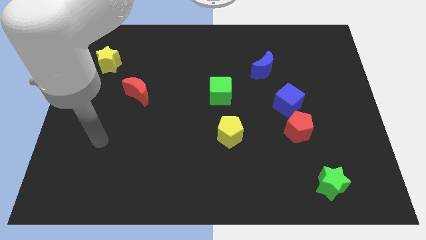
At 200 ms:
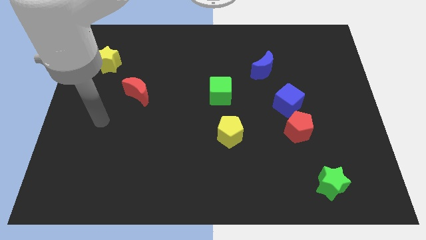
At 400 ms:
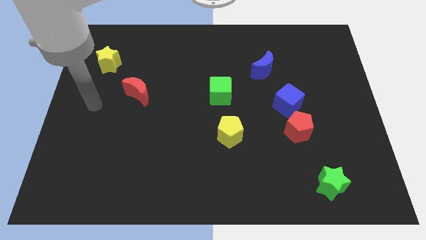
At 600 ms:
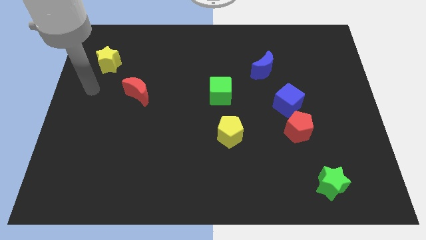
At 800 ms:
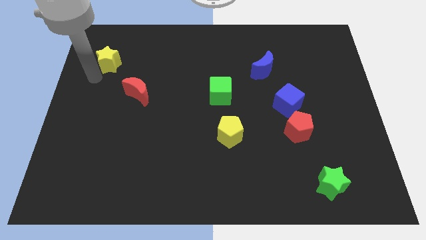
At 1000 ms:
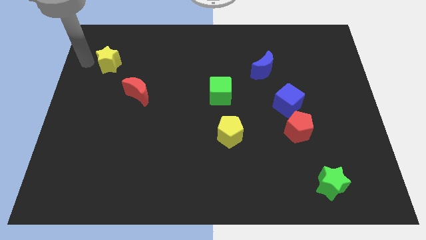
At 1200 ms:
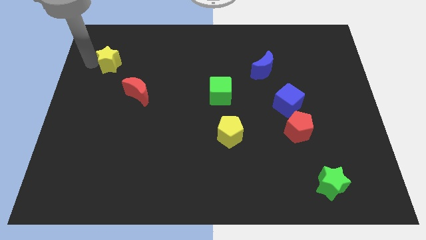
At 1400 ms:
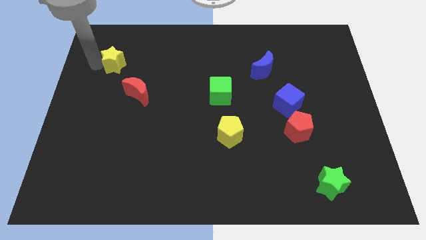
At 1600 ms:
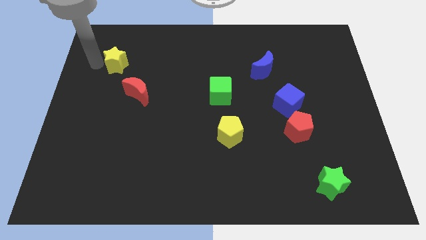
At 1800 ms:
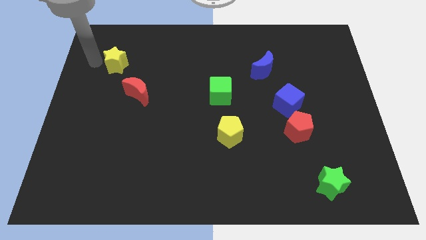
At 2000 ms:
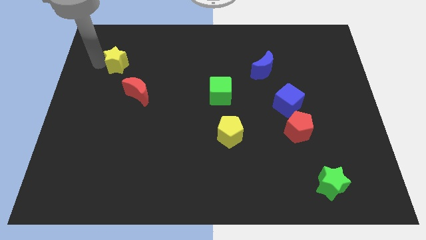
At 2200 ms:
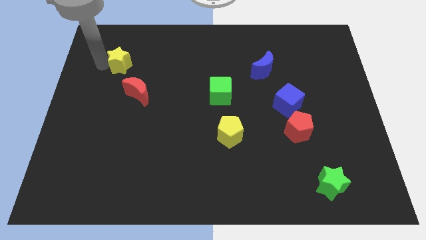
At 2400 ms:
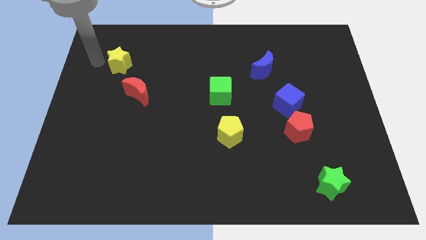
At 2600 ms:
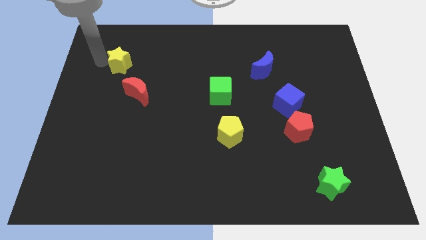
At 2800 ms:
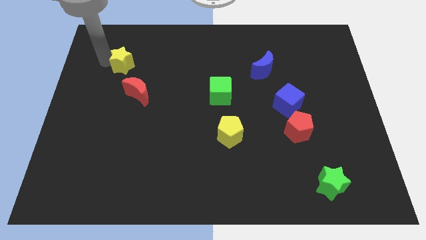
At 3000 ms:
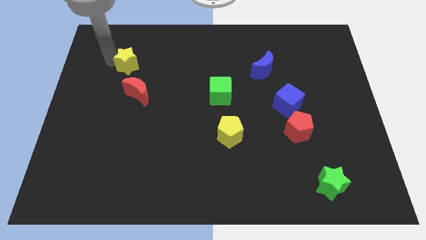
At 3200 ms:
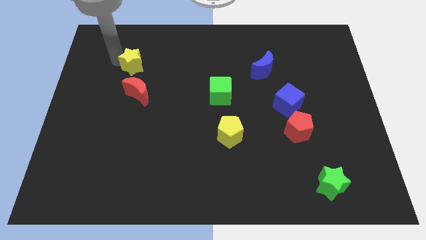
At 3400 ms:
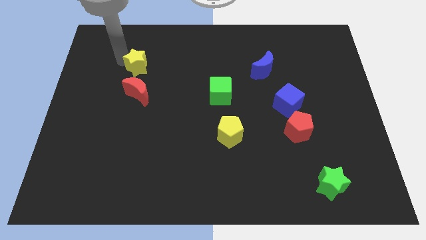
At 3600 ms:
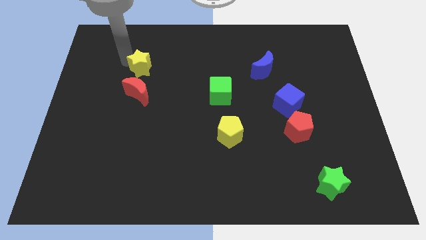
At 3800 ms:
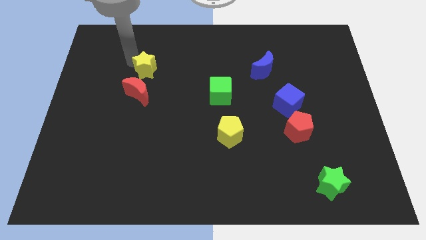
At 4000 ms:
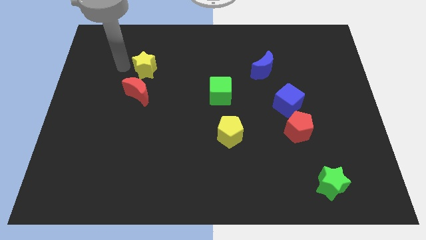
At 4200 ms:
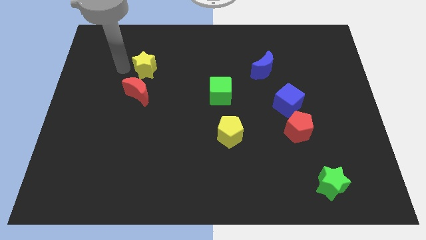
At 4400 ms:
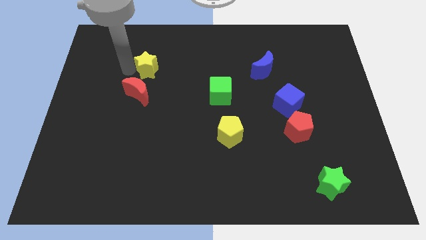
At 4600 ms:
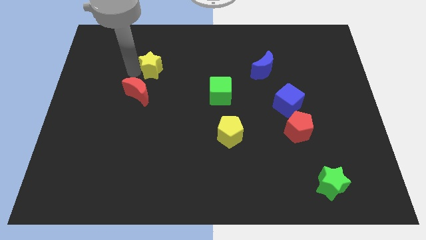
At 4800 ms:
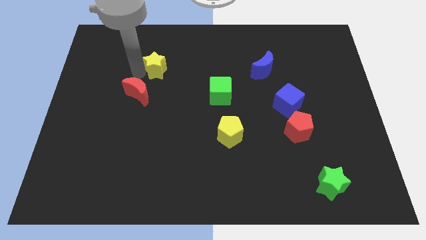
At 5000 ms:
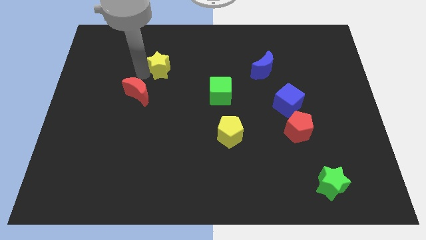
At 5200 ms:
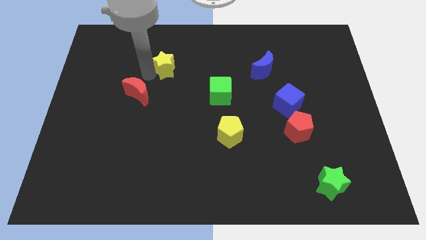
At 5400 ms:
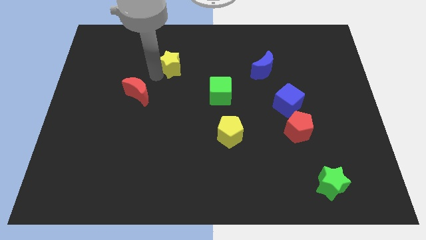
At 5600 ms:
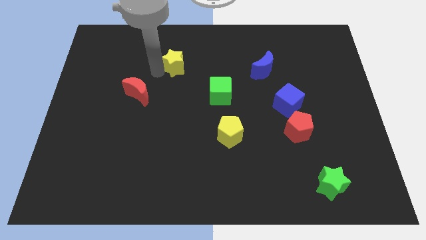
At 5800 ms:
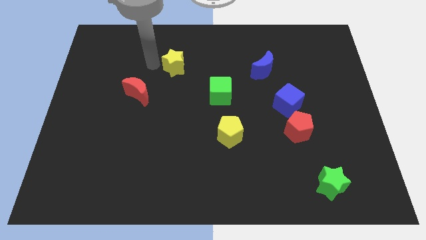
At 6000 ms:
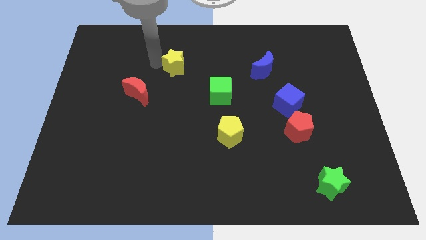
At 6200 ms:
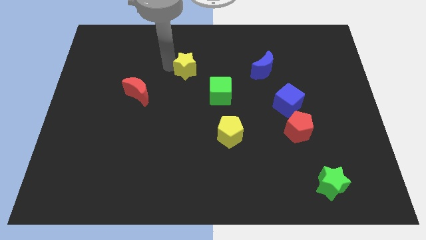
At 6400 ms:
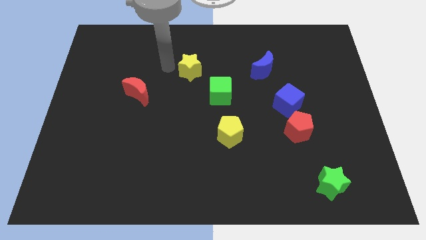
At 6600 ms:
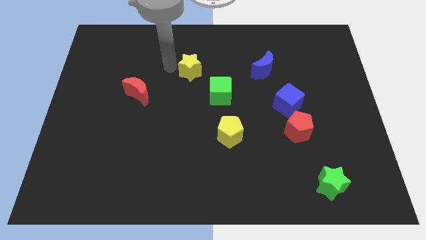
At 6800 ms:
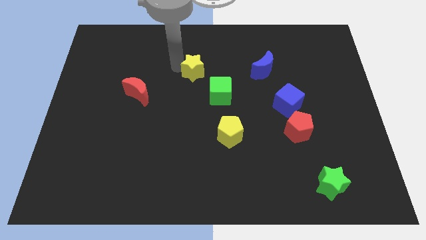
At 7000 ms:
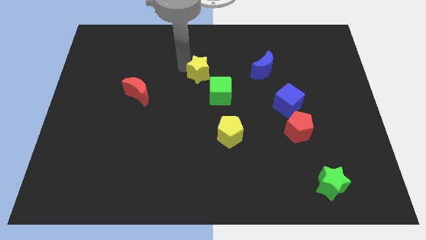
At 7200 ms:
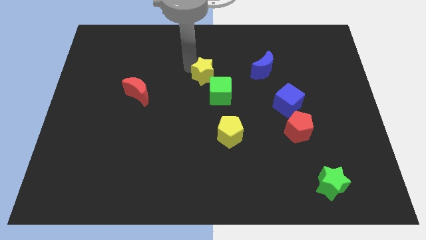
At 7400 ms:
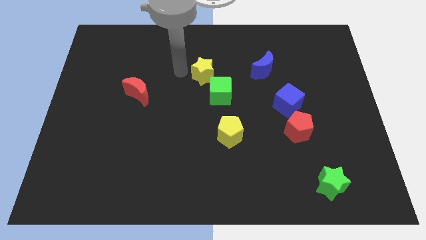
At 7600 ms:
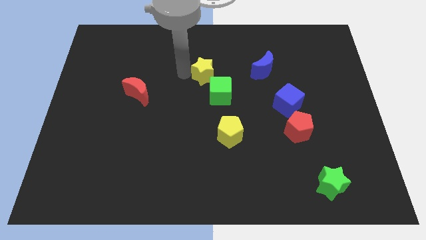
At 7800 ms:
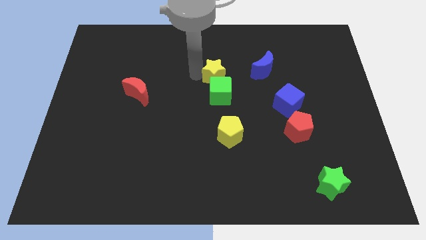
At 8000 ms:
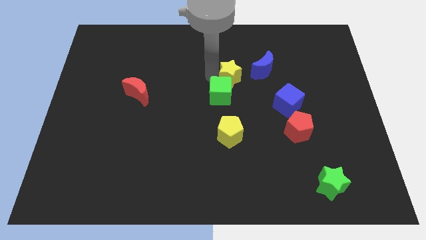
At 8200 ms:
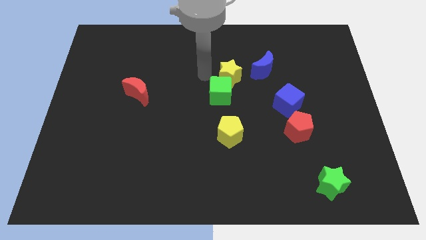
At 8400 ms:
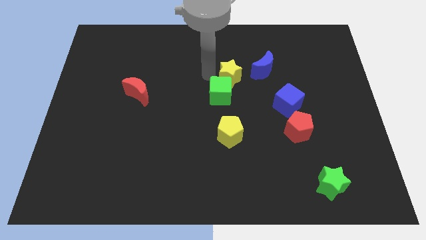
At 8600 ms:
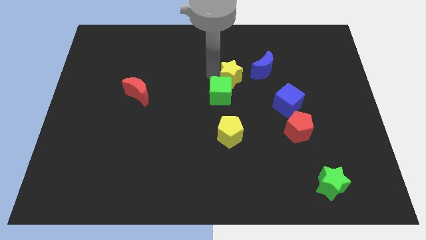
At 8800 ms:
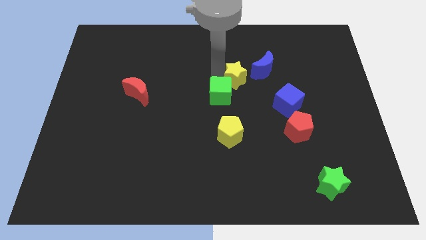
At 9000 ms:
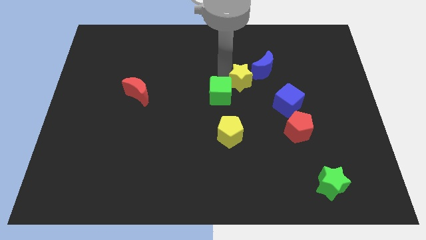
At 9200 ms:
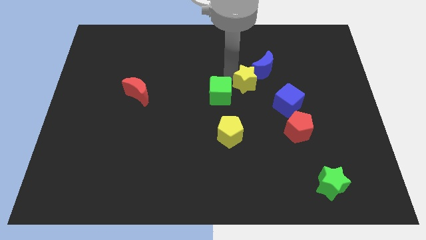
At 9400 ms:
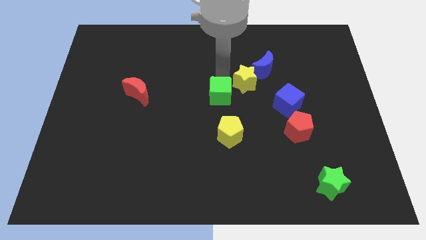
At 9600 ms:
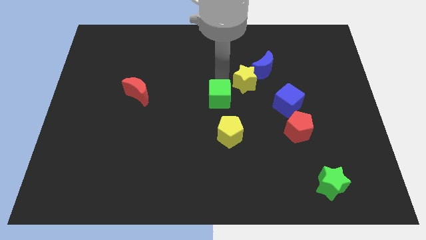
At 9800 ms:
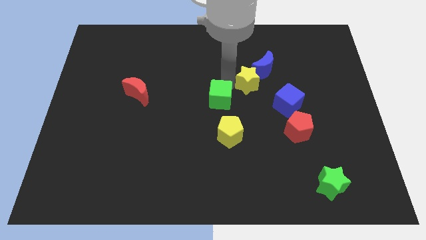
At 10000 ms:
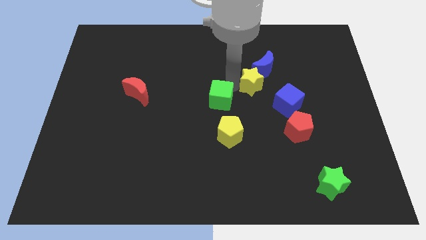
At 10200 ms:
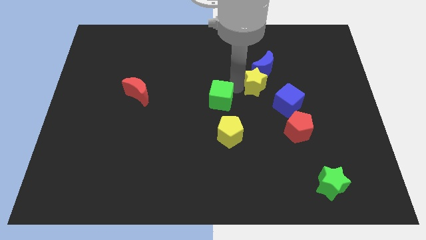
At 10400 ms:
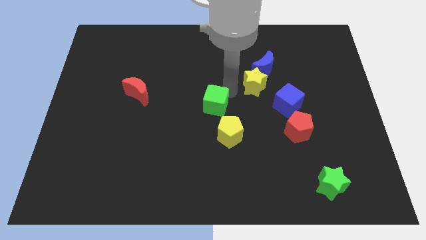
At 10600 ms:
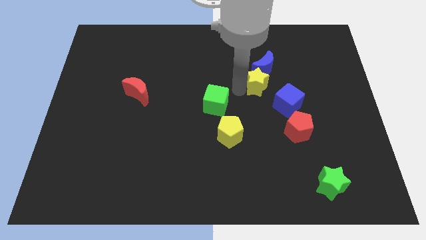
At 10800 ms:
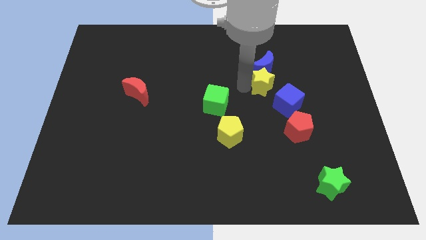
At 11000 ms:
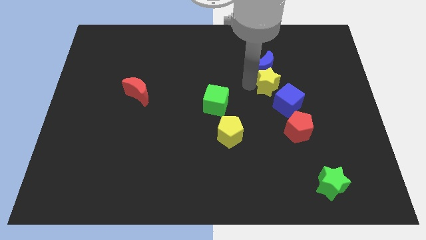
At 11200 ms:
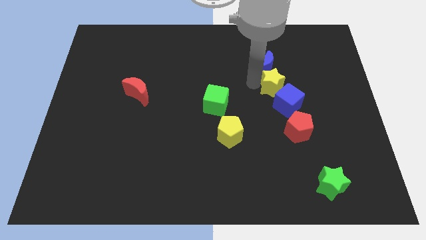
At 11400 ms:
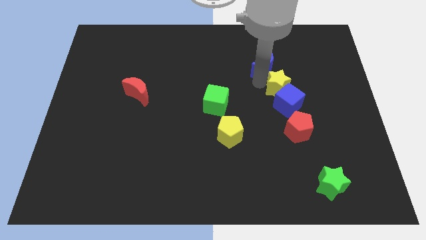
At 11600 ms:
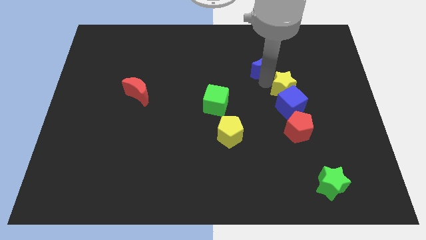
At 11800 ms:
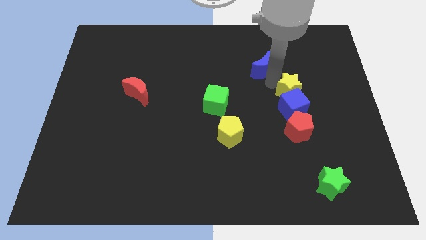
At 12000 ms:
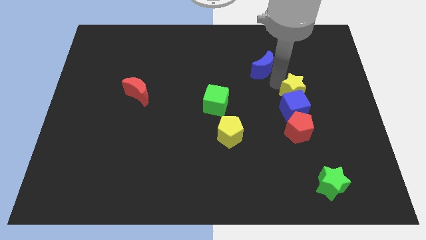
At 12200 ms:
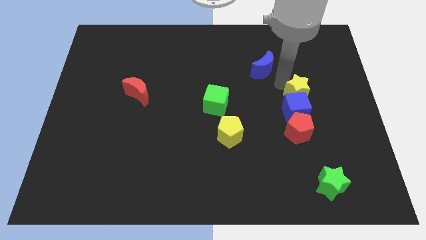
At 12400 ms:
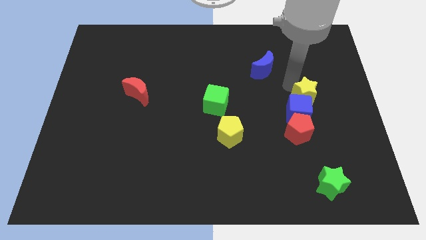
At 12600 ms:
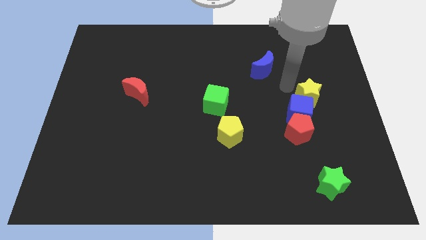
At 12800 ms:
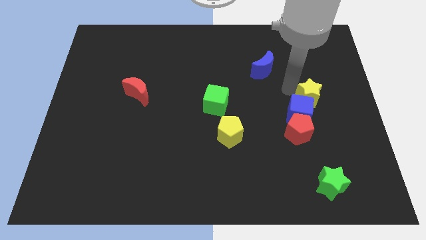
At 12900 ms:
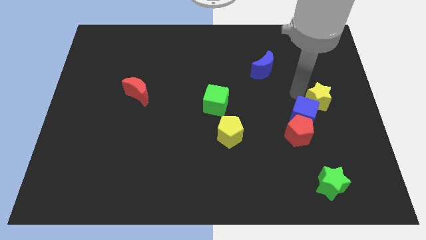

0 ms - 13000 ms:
push the yellow star just right of the blue cube

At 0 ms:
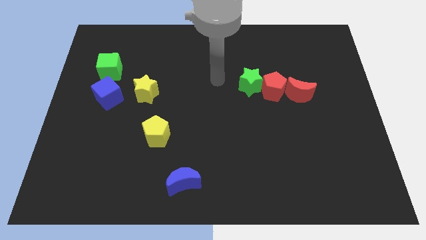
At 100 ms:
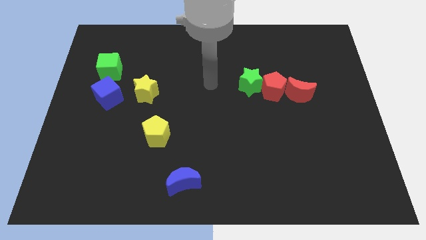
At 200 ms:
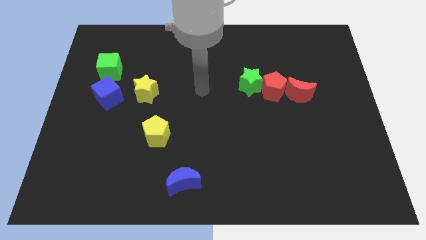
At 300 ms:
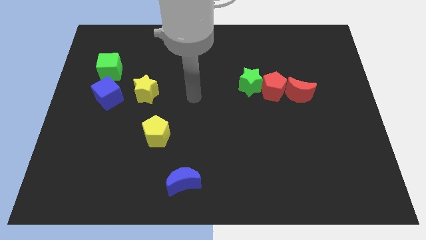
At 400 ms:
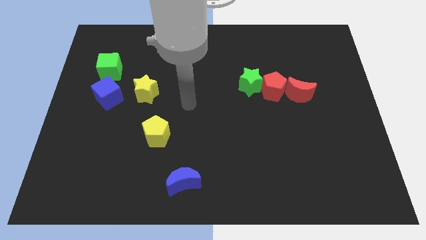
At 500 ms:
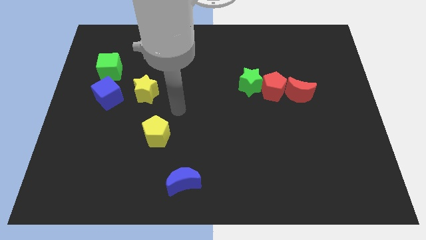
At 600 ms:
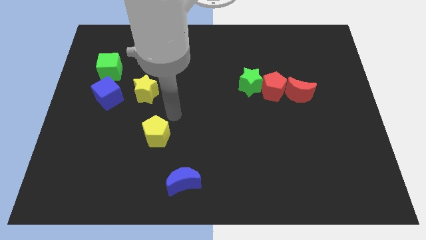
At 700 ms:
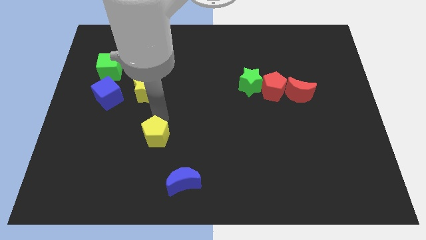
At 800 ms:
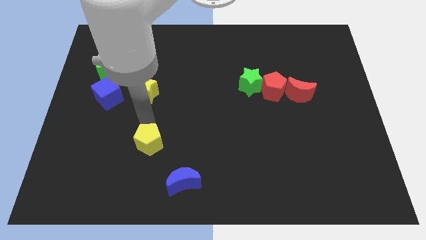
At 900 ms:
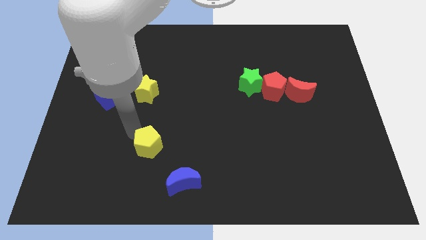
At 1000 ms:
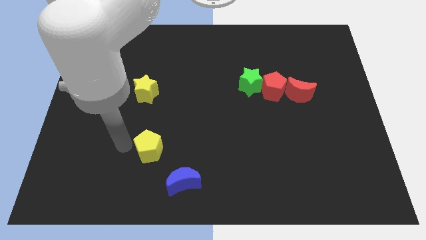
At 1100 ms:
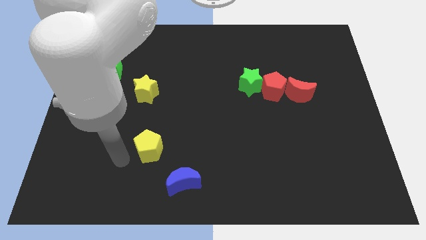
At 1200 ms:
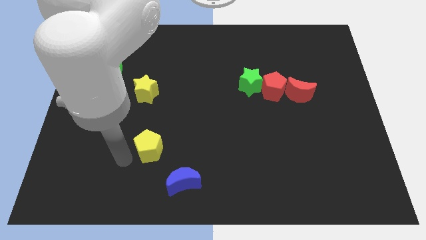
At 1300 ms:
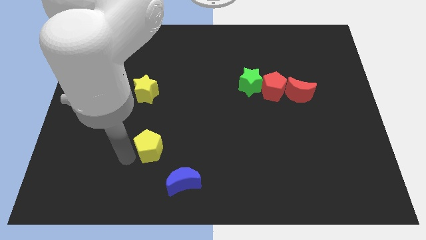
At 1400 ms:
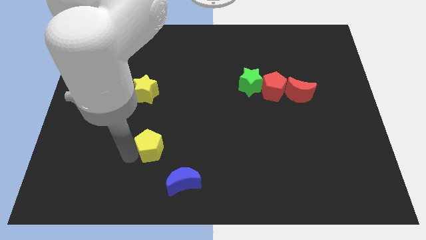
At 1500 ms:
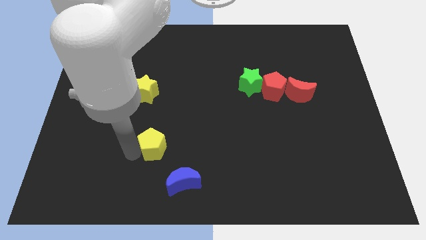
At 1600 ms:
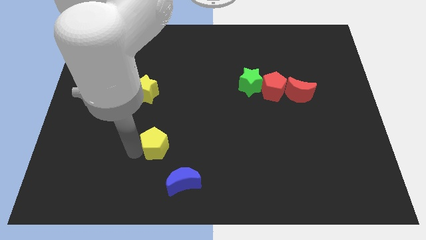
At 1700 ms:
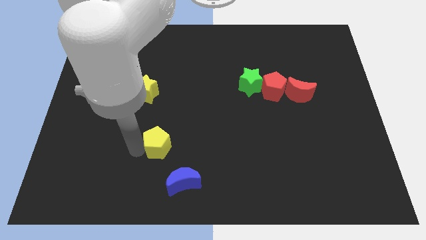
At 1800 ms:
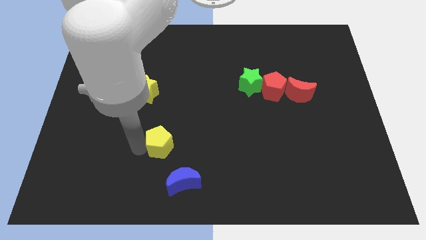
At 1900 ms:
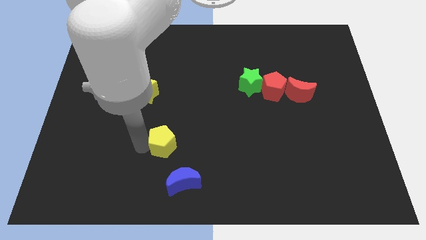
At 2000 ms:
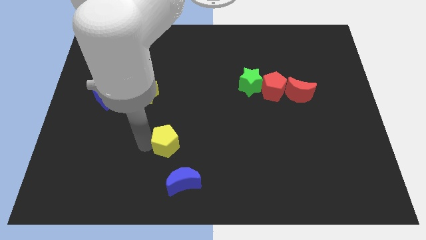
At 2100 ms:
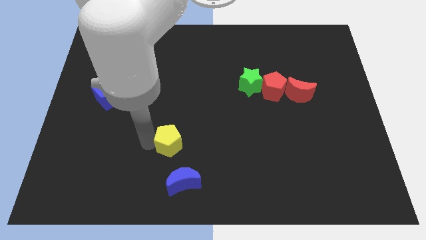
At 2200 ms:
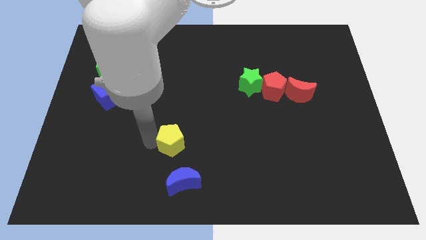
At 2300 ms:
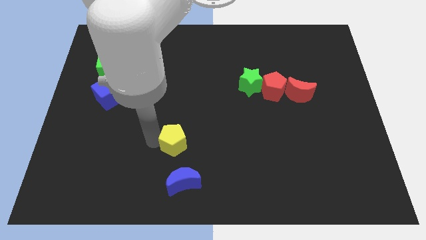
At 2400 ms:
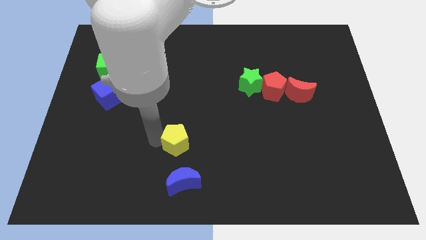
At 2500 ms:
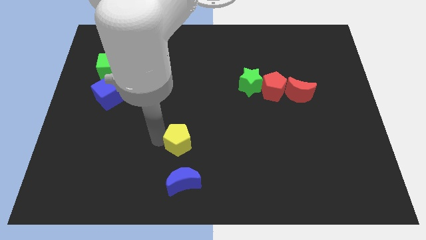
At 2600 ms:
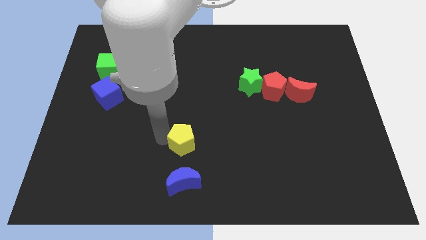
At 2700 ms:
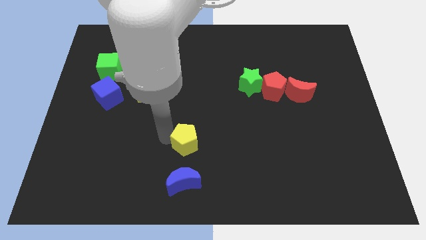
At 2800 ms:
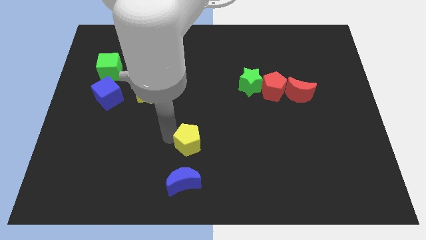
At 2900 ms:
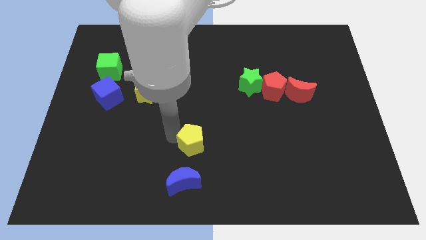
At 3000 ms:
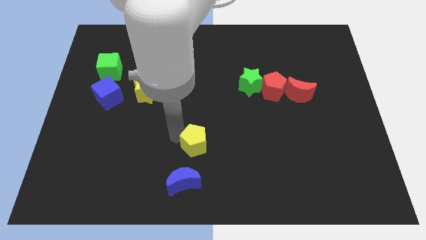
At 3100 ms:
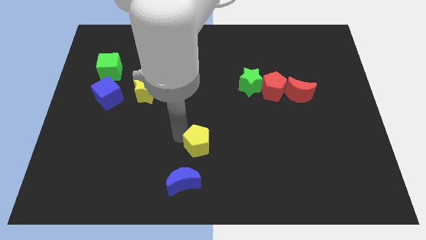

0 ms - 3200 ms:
put the yellow pentagon to the top right of the blue moon
